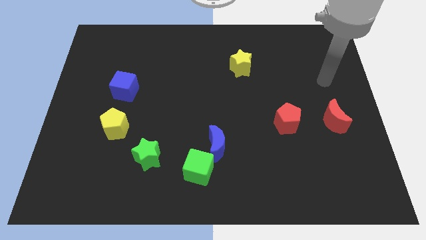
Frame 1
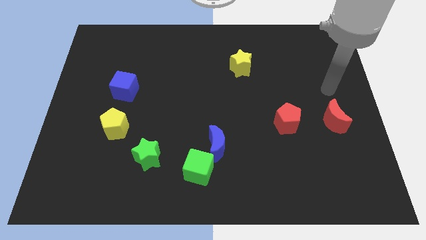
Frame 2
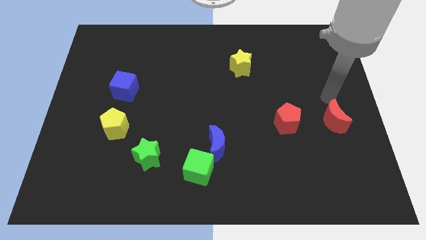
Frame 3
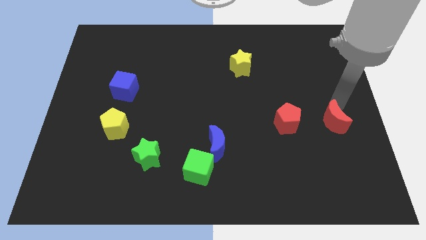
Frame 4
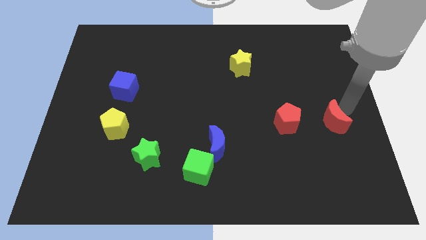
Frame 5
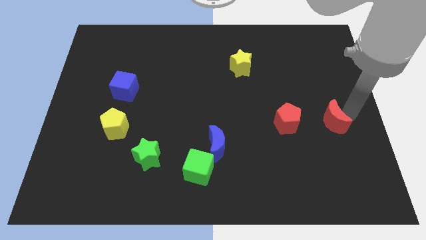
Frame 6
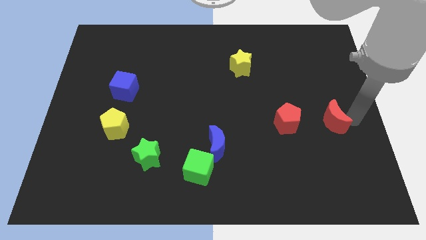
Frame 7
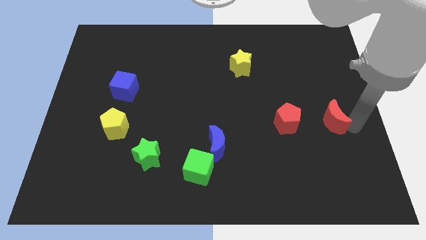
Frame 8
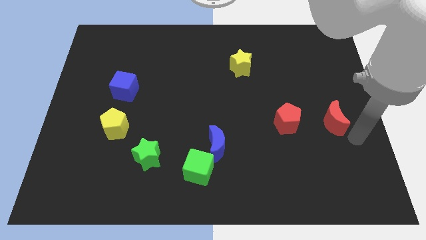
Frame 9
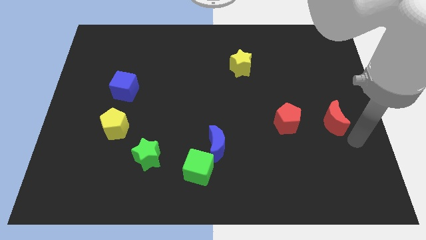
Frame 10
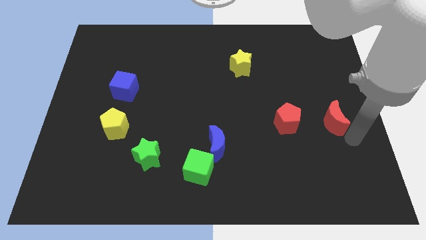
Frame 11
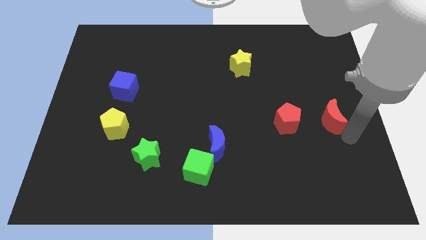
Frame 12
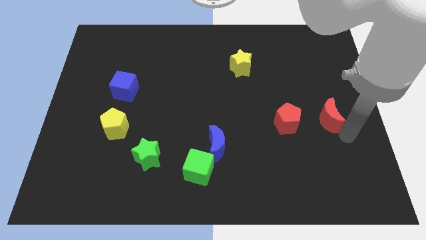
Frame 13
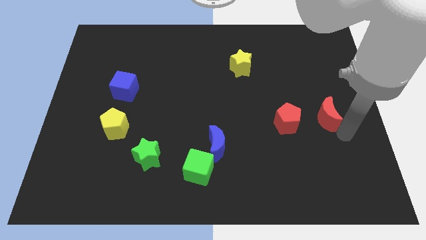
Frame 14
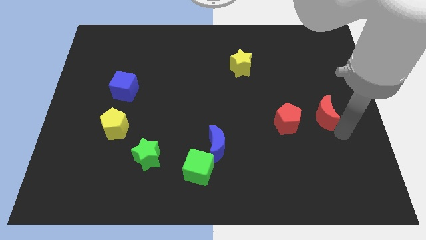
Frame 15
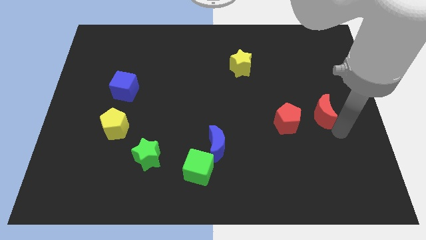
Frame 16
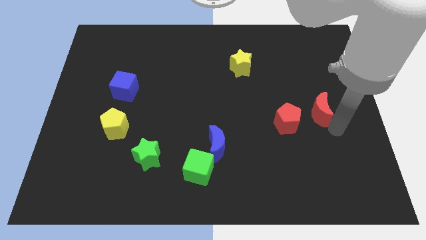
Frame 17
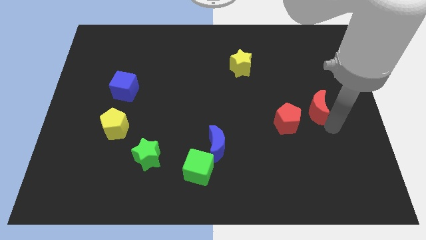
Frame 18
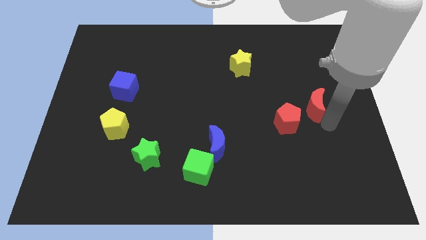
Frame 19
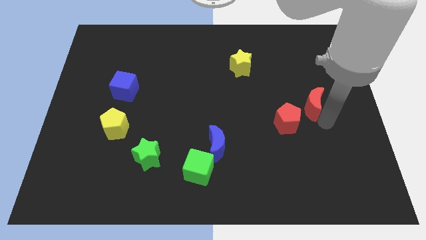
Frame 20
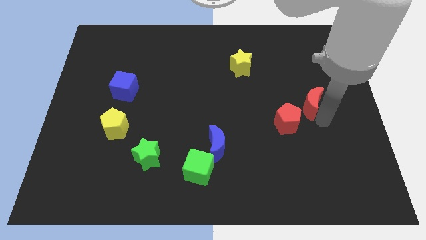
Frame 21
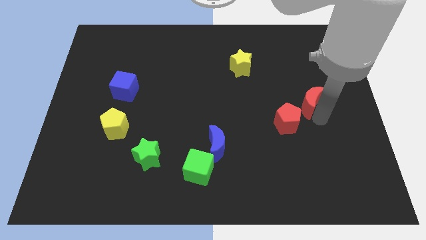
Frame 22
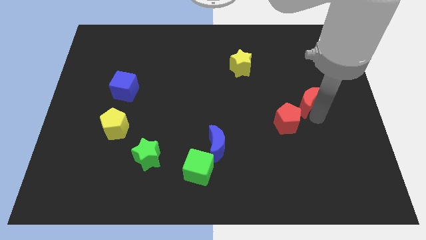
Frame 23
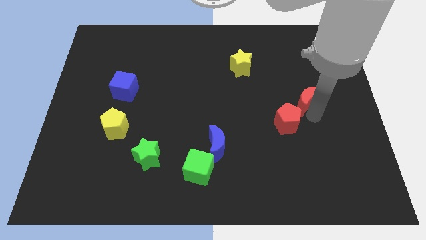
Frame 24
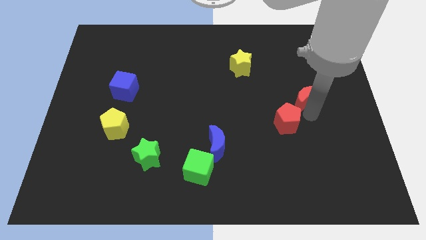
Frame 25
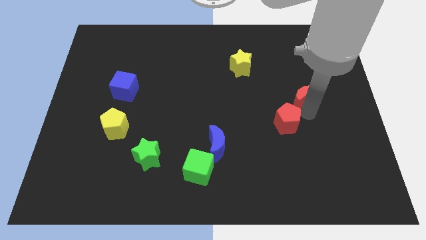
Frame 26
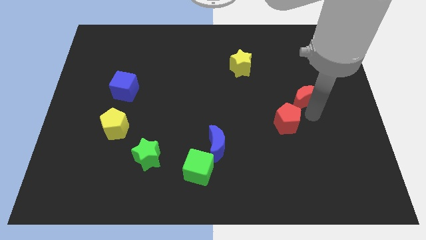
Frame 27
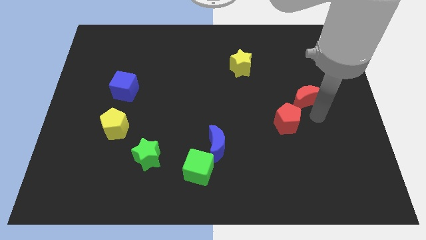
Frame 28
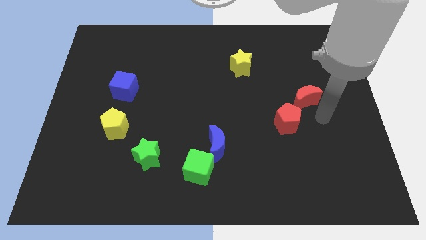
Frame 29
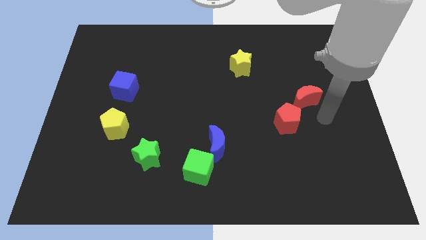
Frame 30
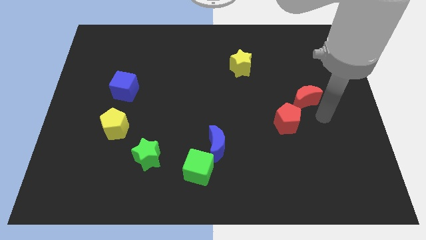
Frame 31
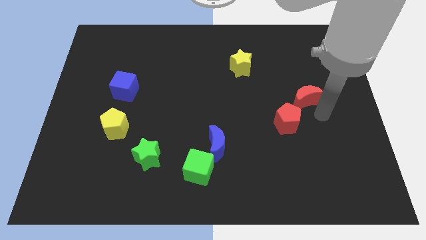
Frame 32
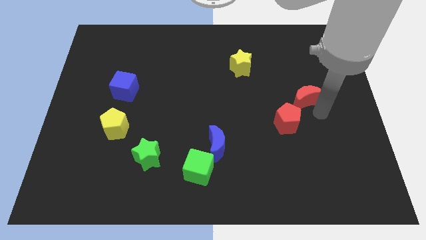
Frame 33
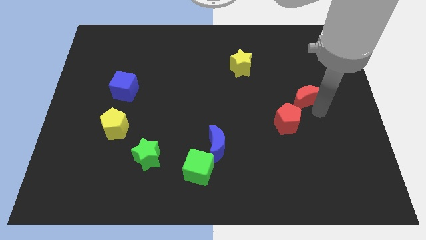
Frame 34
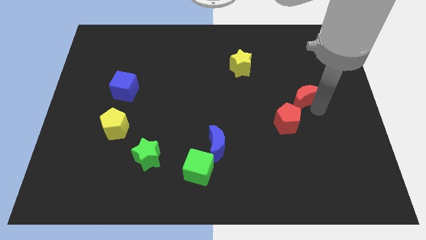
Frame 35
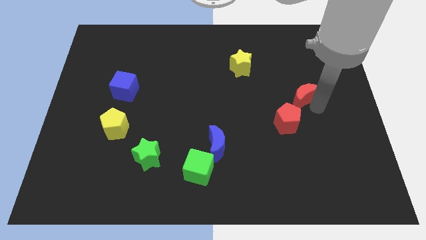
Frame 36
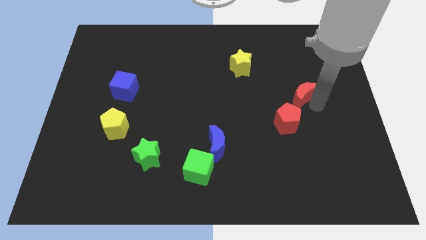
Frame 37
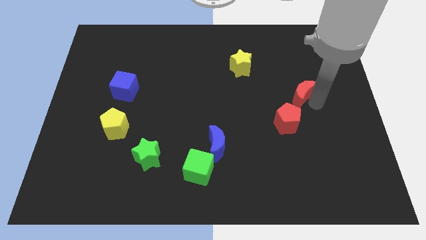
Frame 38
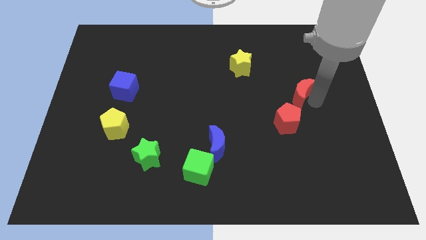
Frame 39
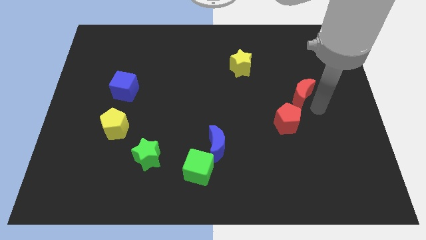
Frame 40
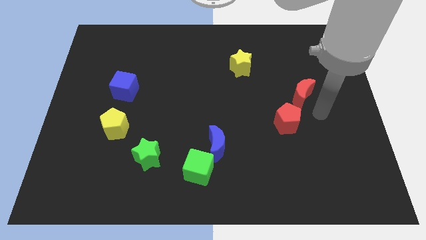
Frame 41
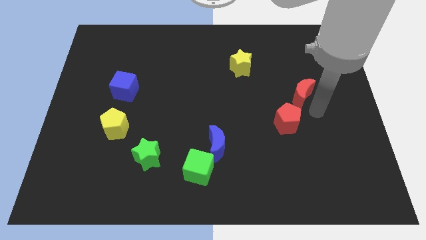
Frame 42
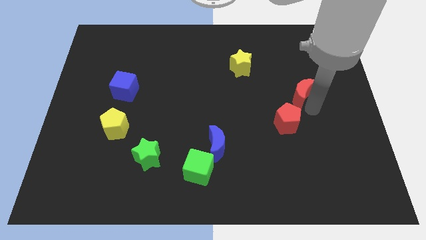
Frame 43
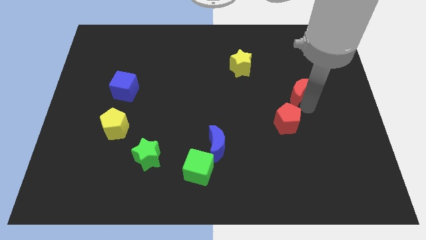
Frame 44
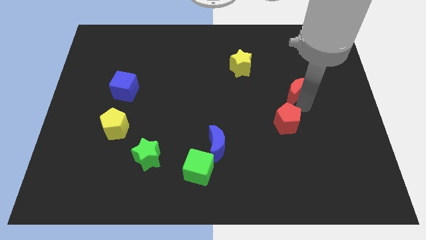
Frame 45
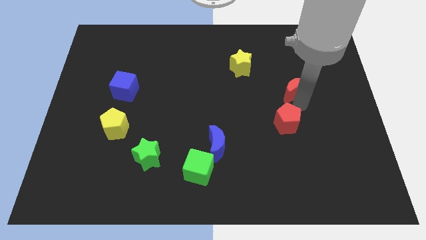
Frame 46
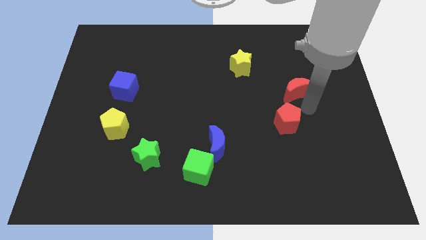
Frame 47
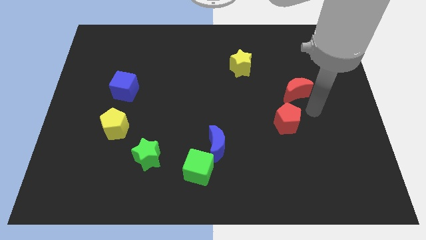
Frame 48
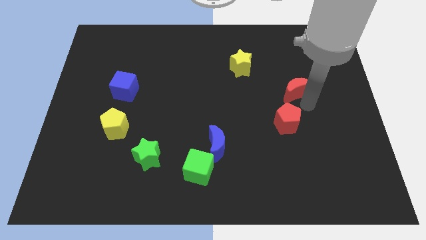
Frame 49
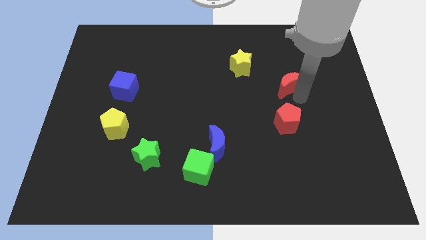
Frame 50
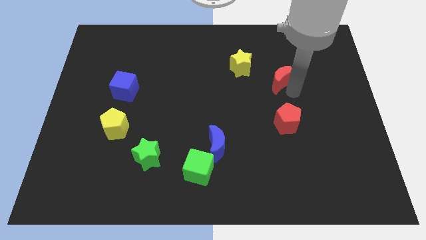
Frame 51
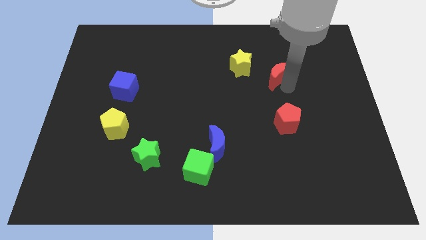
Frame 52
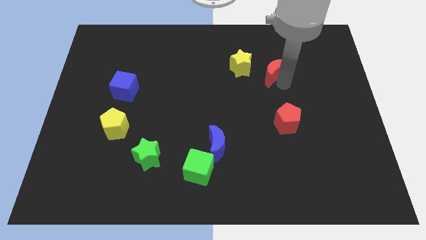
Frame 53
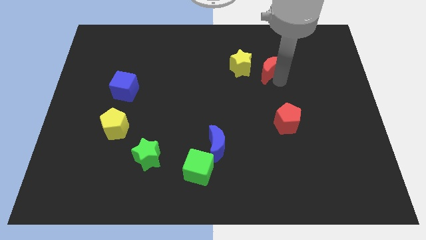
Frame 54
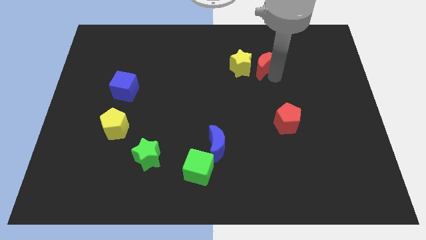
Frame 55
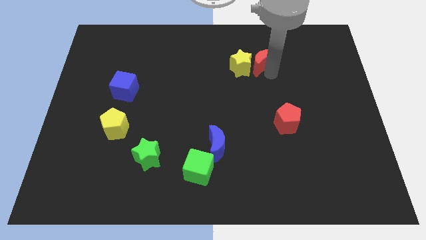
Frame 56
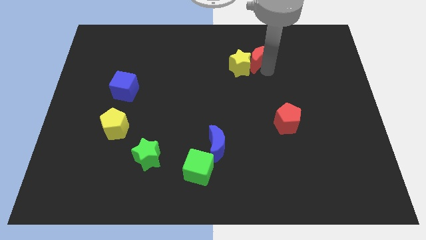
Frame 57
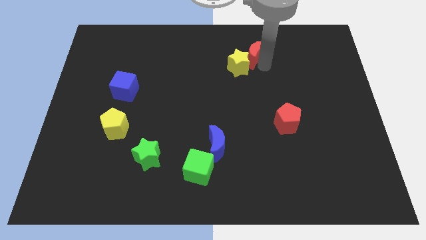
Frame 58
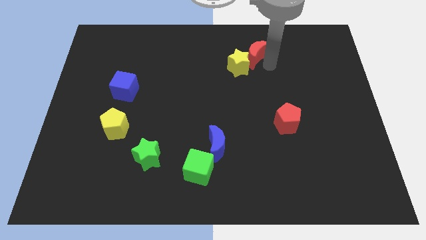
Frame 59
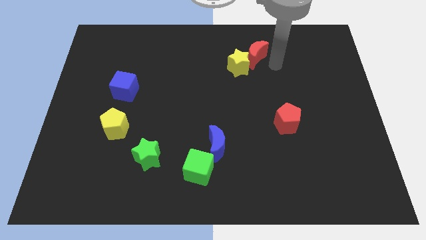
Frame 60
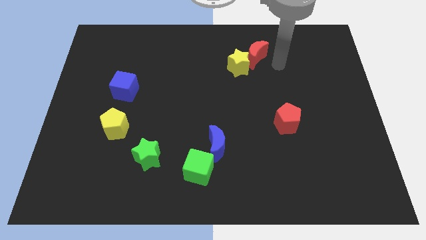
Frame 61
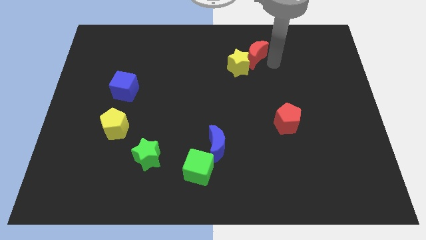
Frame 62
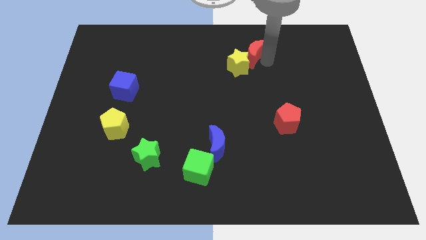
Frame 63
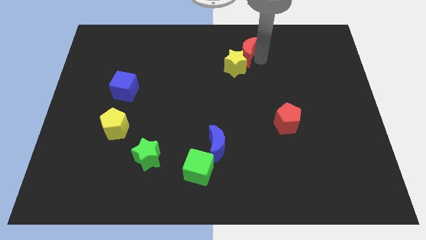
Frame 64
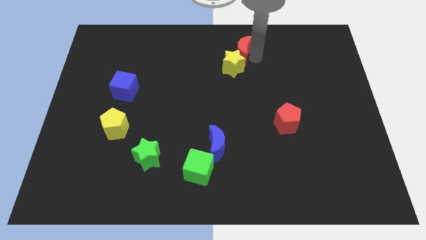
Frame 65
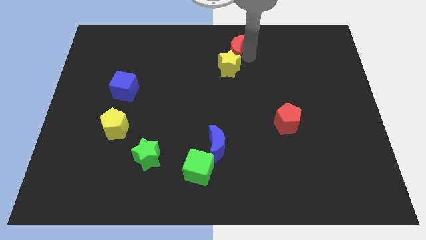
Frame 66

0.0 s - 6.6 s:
slide the red moon to the towards your base
